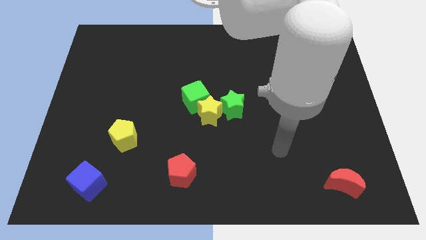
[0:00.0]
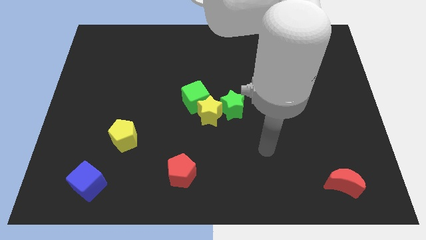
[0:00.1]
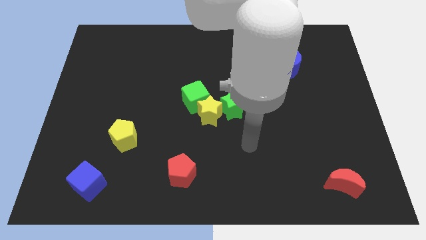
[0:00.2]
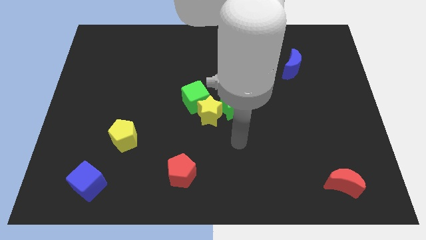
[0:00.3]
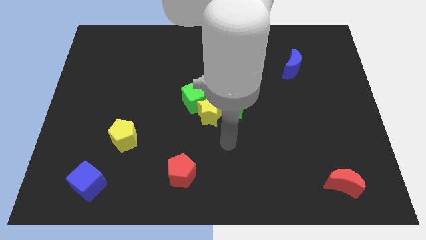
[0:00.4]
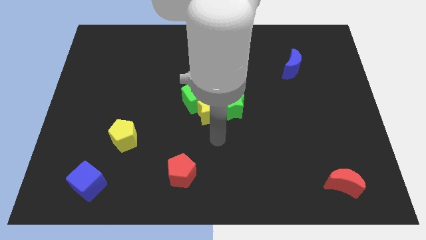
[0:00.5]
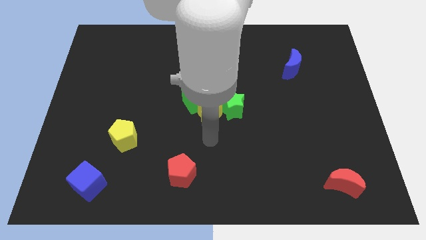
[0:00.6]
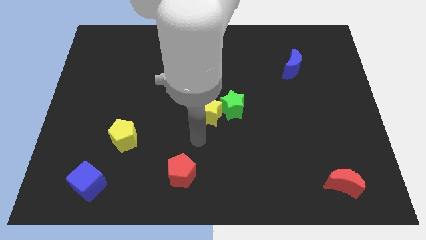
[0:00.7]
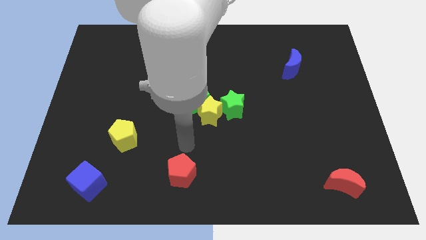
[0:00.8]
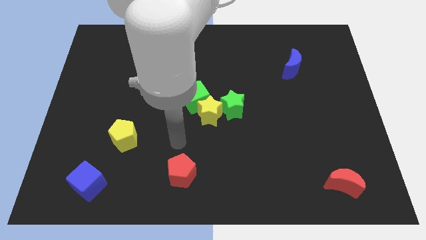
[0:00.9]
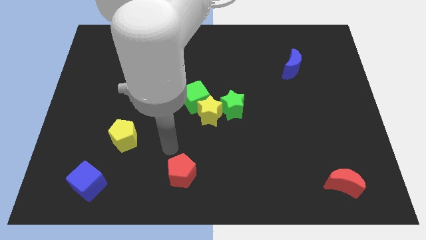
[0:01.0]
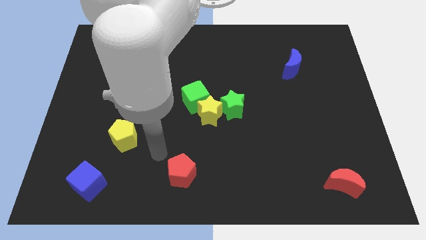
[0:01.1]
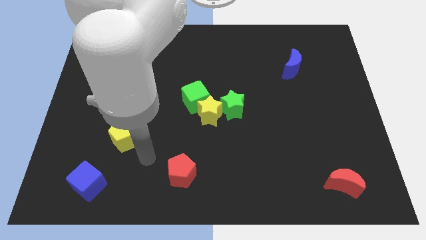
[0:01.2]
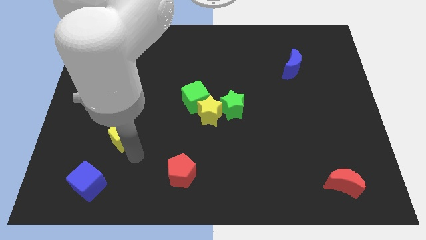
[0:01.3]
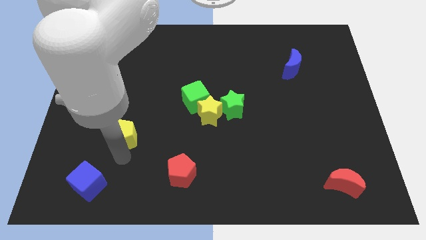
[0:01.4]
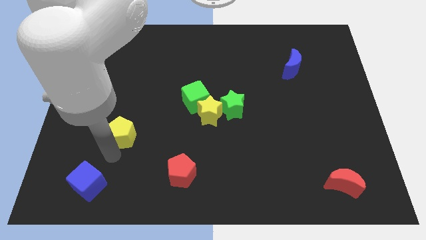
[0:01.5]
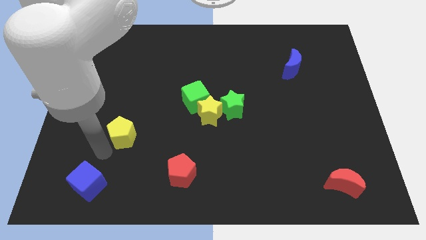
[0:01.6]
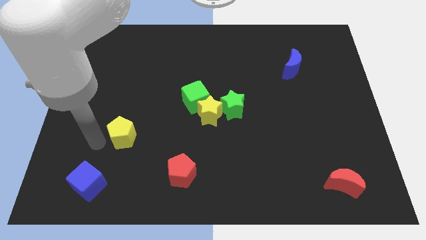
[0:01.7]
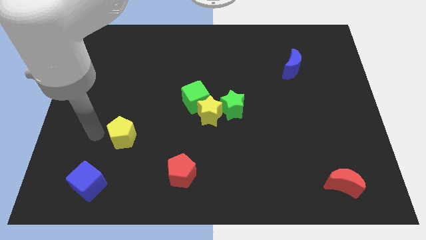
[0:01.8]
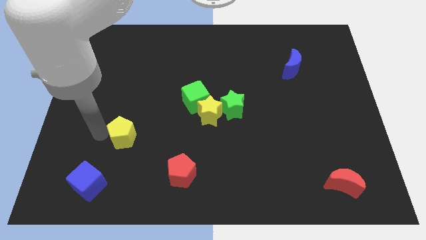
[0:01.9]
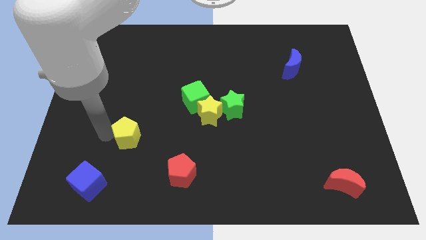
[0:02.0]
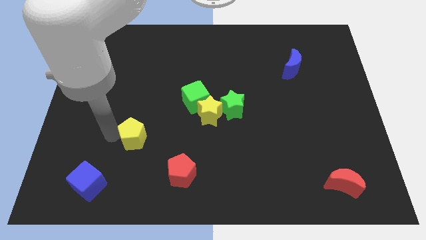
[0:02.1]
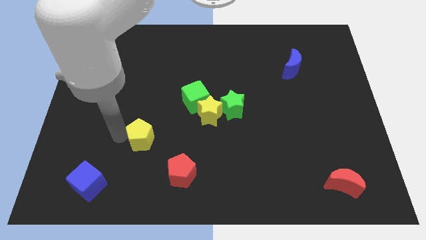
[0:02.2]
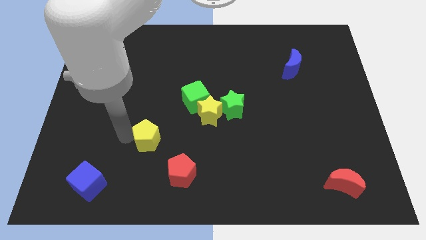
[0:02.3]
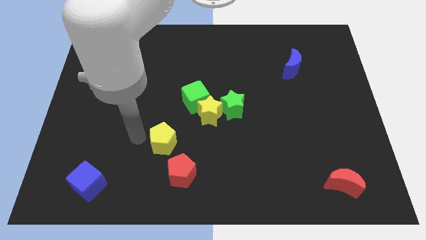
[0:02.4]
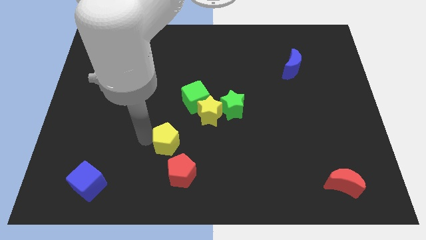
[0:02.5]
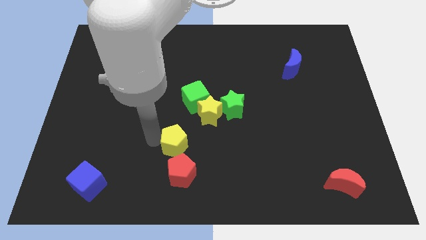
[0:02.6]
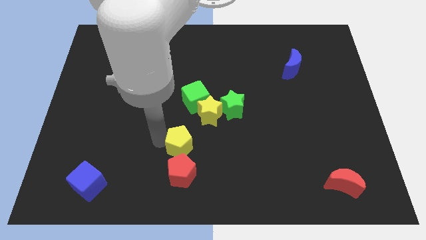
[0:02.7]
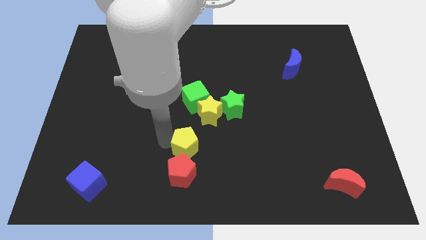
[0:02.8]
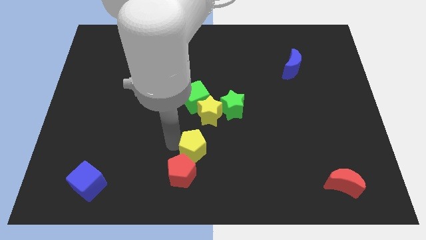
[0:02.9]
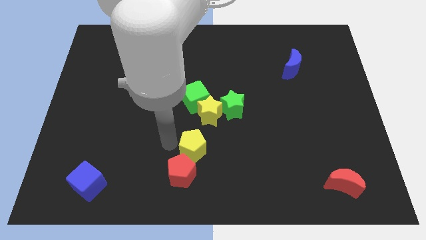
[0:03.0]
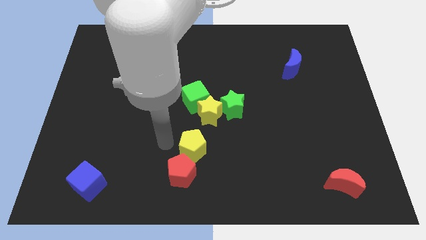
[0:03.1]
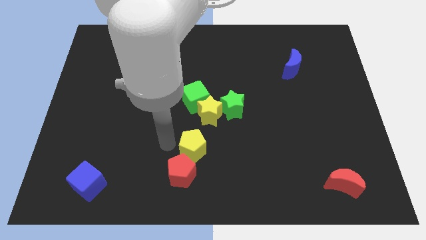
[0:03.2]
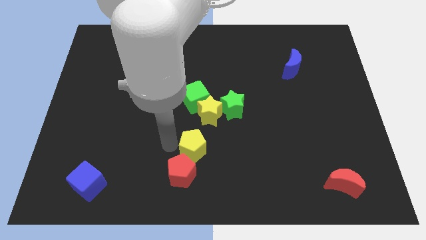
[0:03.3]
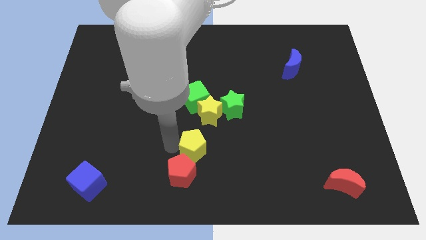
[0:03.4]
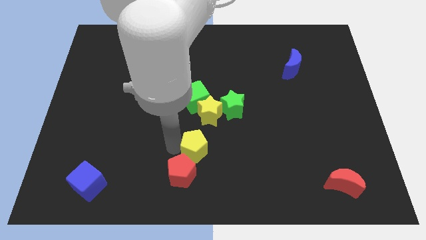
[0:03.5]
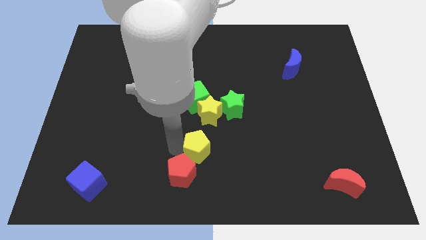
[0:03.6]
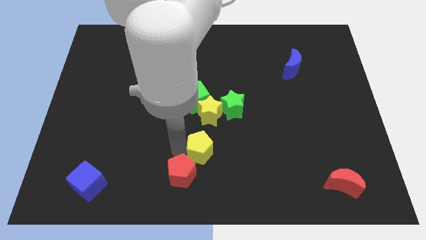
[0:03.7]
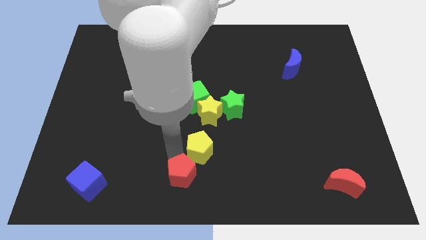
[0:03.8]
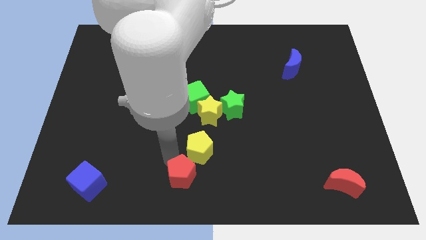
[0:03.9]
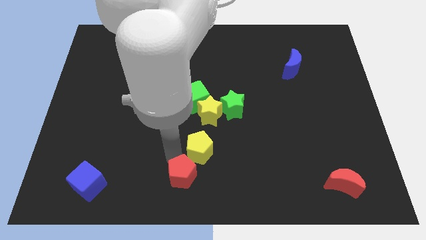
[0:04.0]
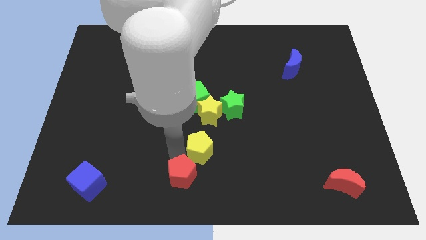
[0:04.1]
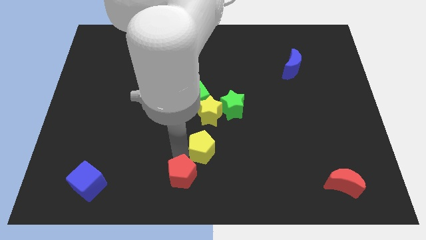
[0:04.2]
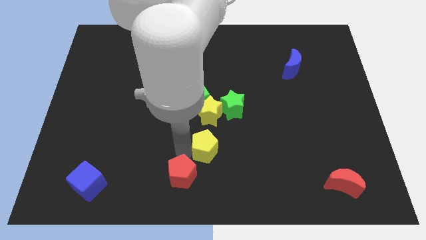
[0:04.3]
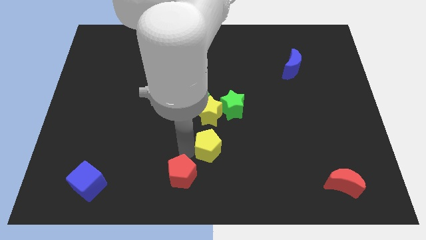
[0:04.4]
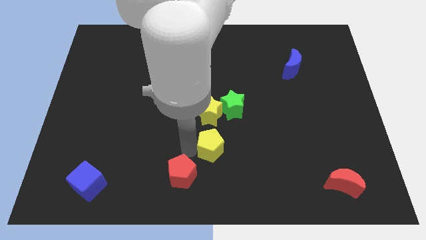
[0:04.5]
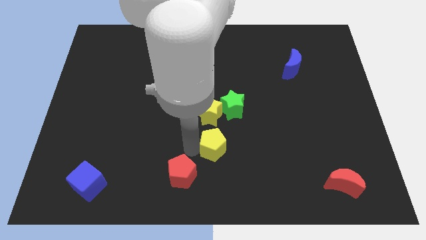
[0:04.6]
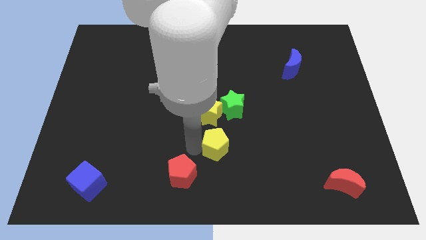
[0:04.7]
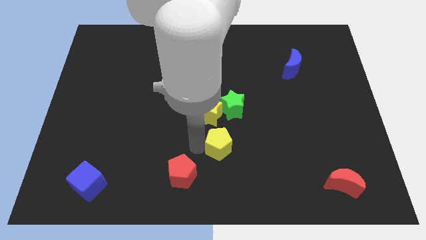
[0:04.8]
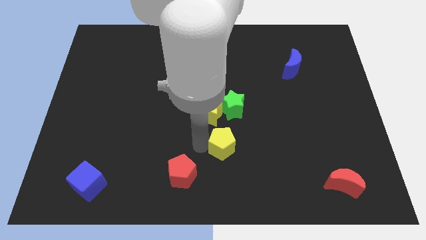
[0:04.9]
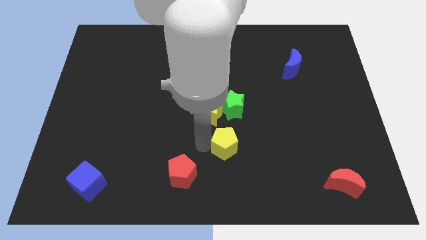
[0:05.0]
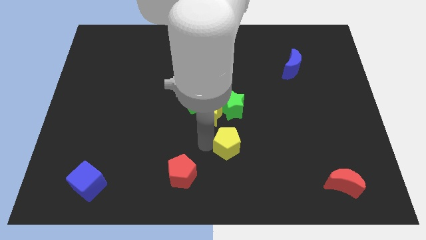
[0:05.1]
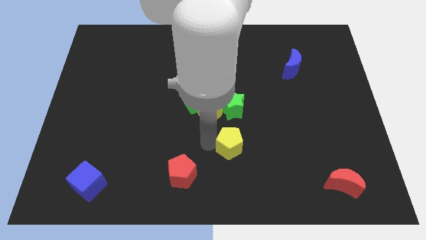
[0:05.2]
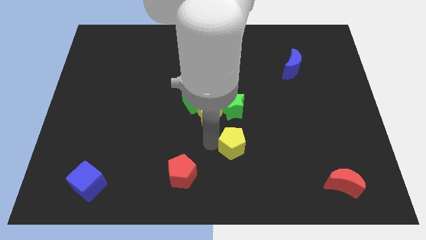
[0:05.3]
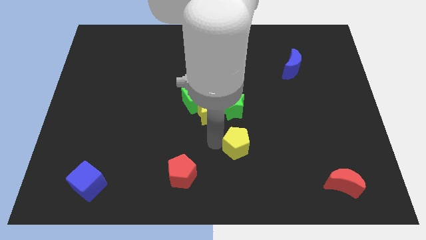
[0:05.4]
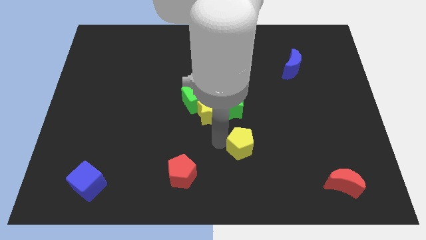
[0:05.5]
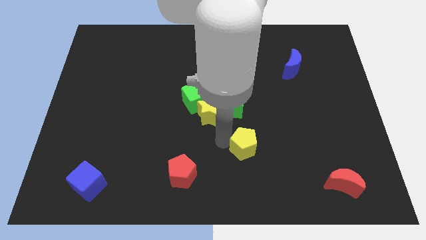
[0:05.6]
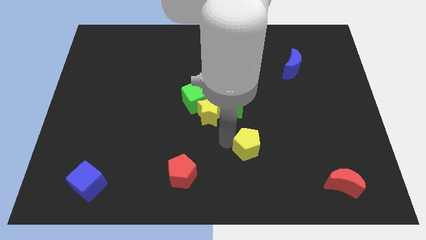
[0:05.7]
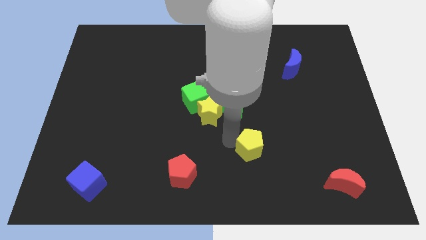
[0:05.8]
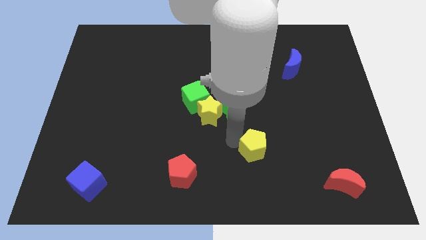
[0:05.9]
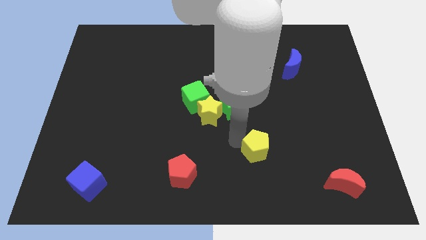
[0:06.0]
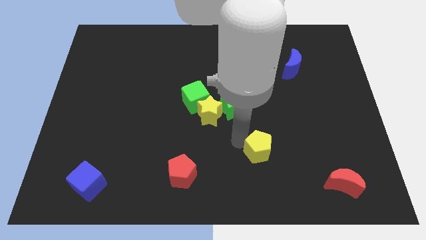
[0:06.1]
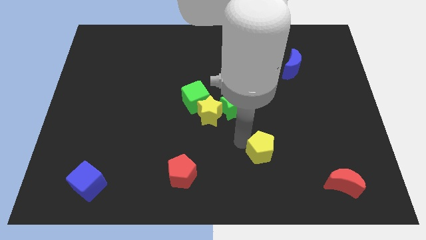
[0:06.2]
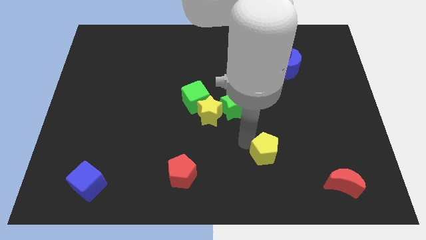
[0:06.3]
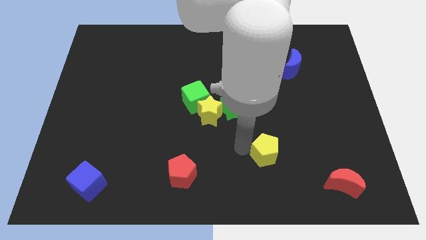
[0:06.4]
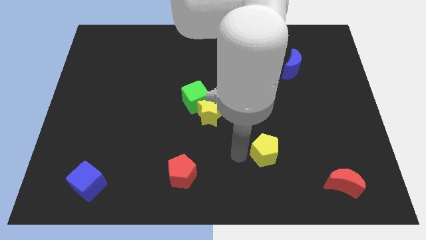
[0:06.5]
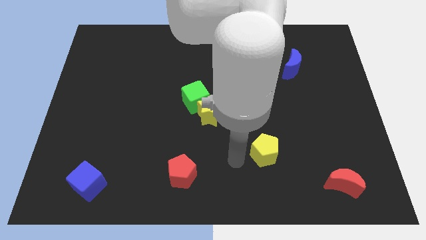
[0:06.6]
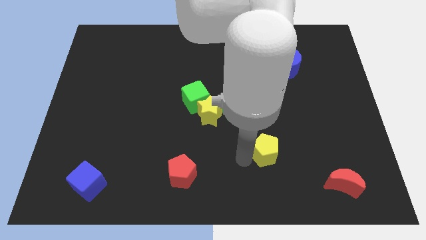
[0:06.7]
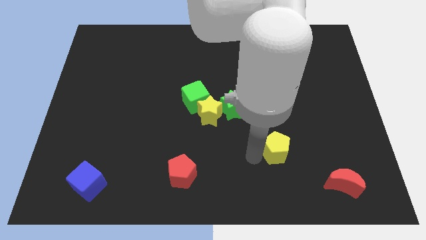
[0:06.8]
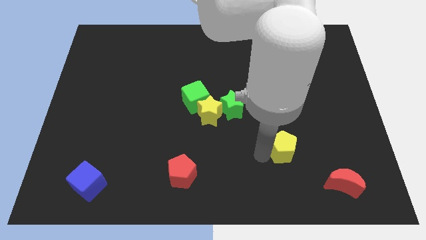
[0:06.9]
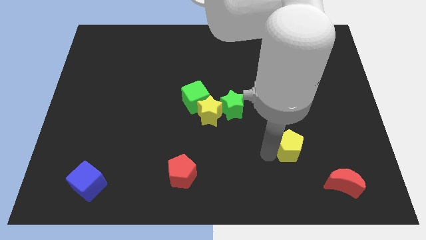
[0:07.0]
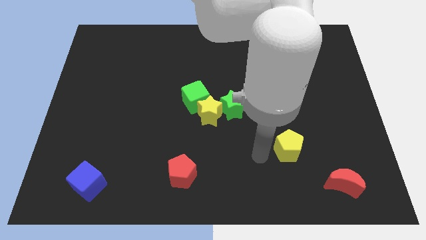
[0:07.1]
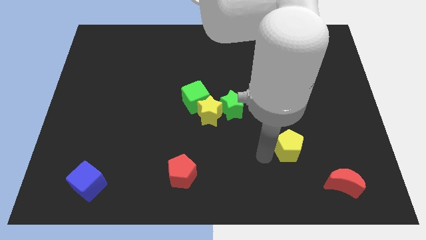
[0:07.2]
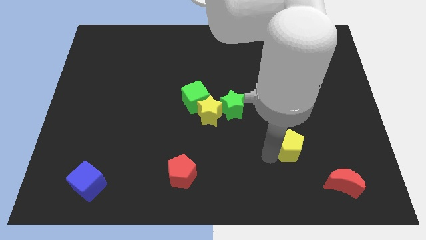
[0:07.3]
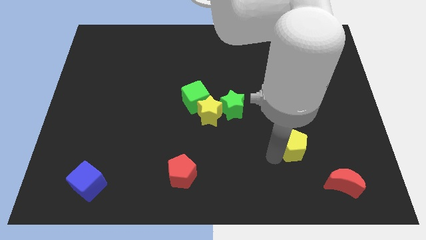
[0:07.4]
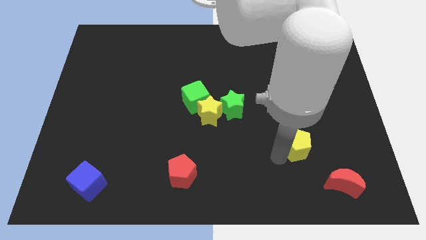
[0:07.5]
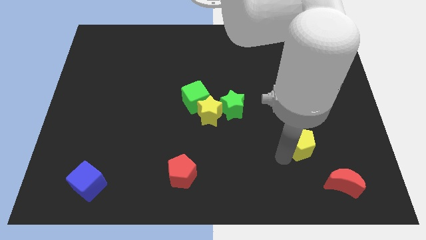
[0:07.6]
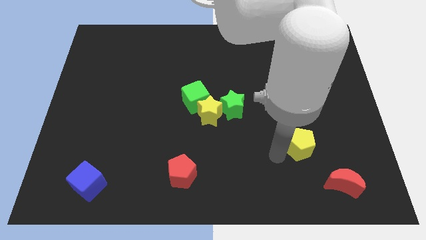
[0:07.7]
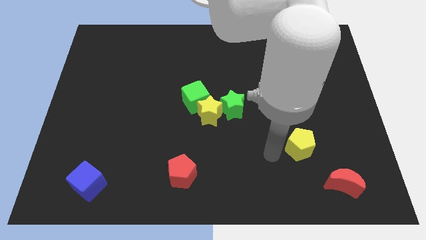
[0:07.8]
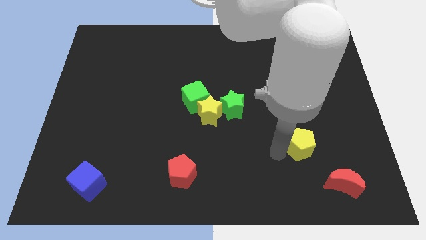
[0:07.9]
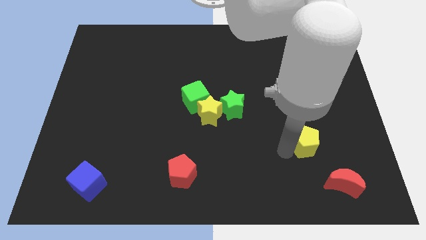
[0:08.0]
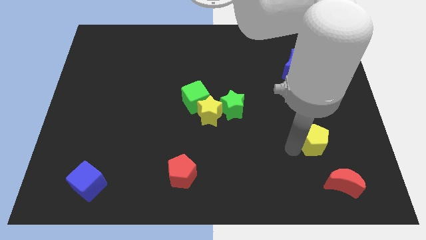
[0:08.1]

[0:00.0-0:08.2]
put the yellow pentagon to the top side of the red moon
